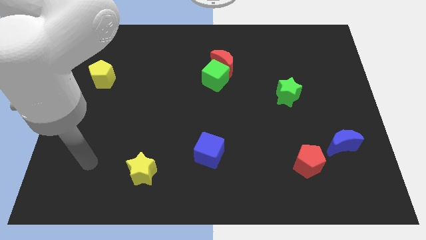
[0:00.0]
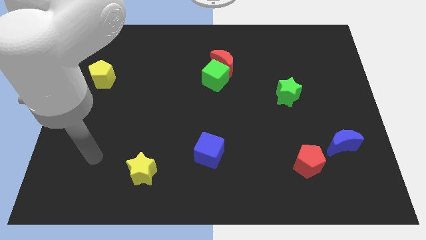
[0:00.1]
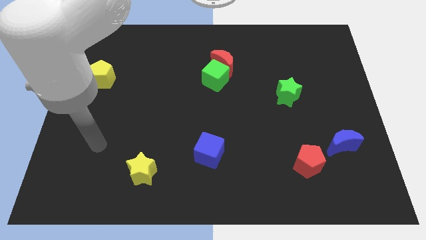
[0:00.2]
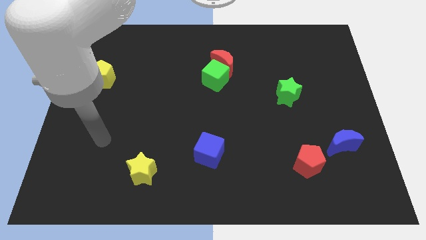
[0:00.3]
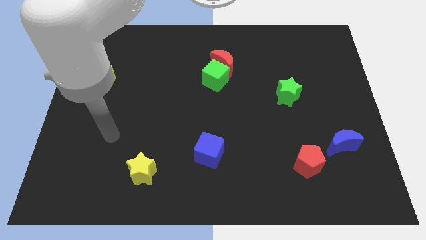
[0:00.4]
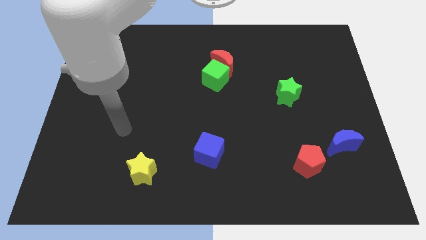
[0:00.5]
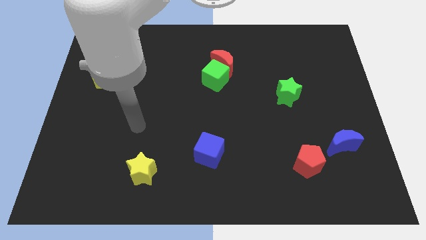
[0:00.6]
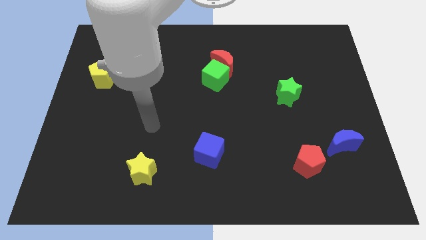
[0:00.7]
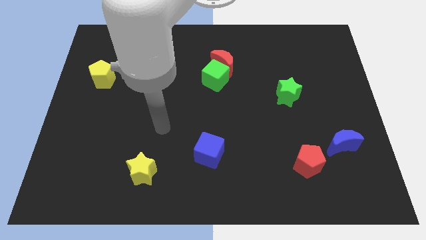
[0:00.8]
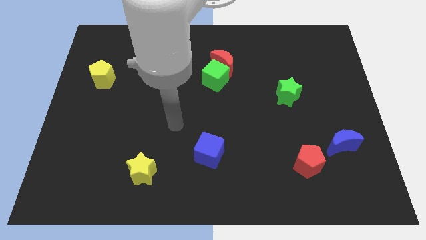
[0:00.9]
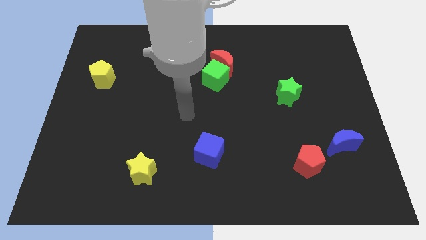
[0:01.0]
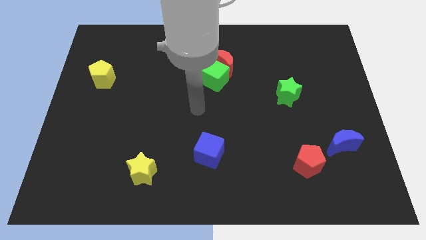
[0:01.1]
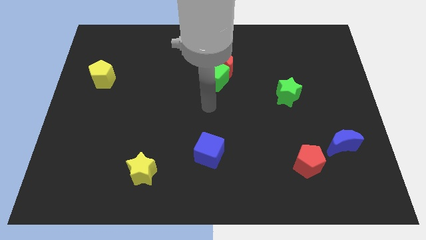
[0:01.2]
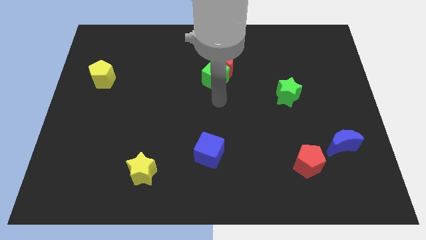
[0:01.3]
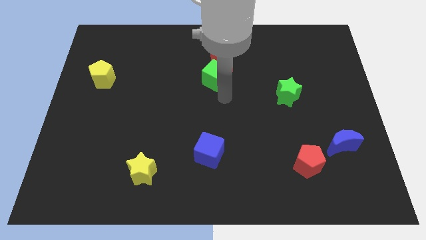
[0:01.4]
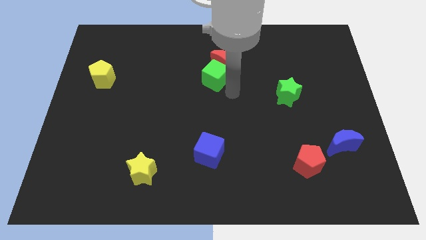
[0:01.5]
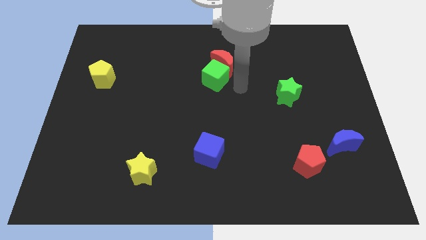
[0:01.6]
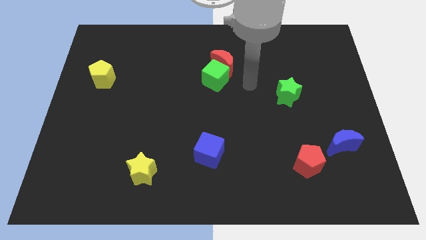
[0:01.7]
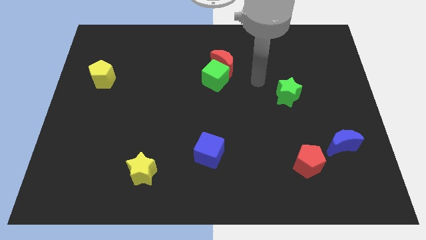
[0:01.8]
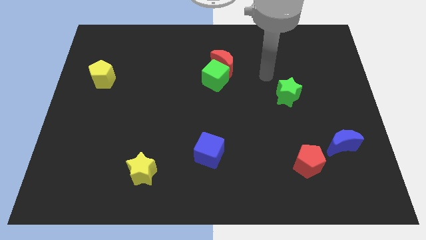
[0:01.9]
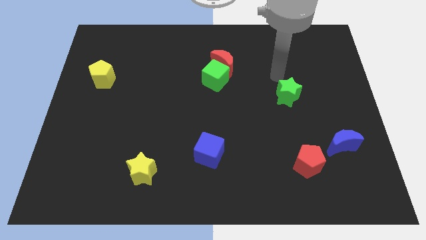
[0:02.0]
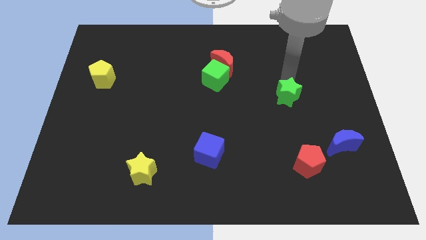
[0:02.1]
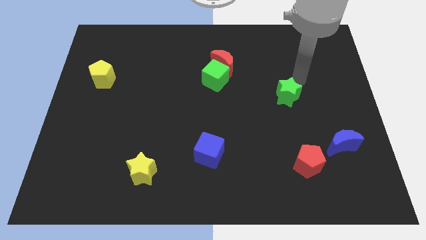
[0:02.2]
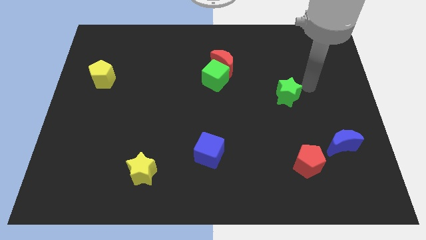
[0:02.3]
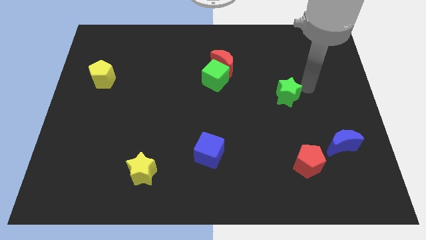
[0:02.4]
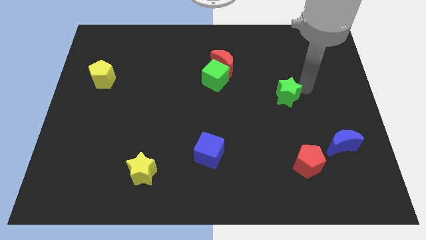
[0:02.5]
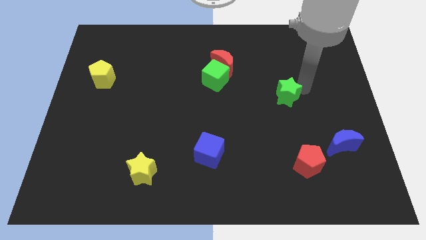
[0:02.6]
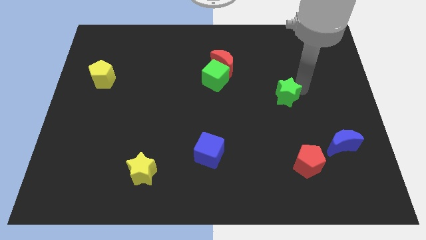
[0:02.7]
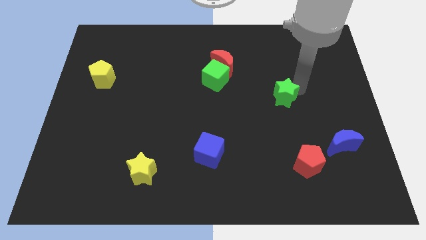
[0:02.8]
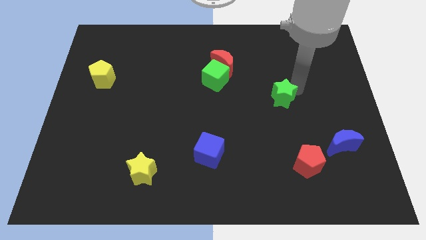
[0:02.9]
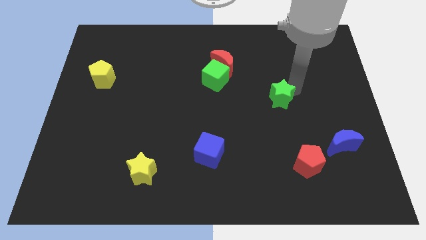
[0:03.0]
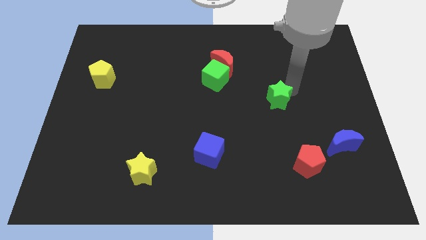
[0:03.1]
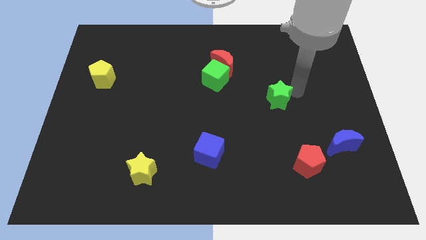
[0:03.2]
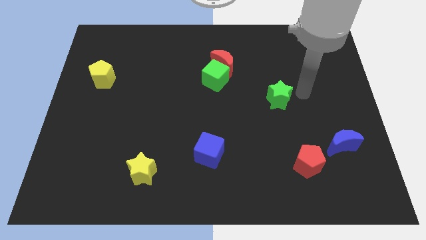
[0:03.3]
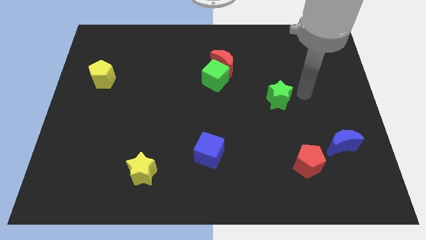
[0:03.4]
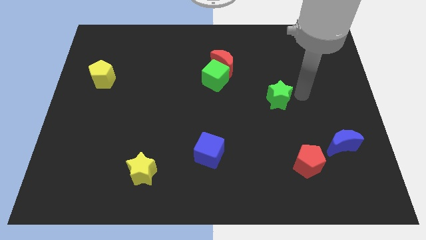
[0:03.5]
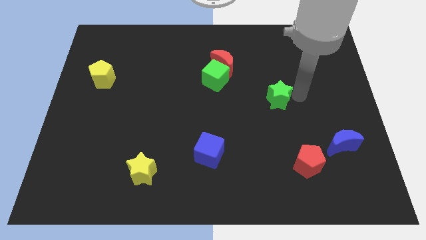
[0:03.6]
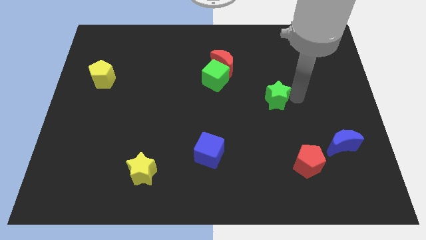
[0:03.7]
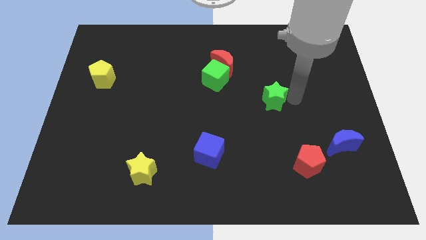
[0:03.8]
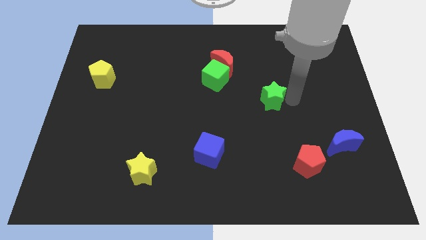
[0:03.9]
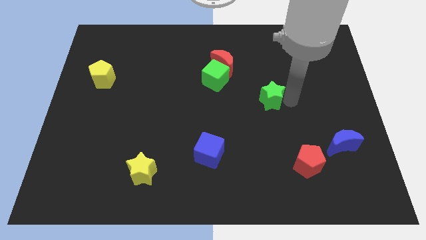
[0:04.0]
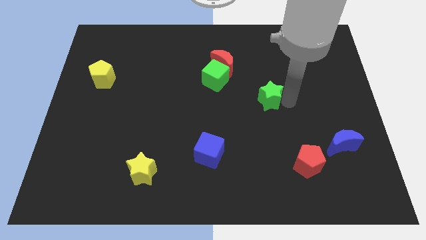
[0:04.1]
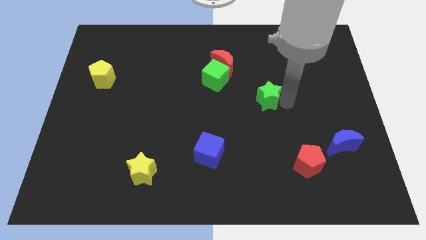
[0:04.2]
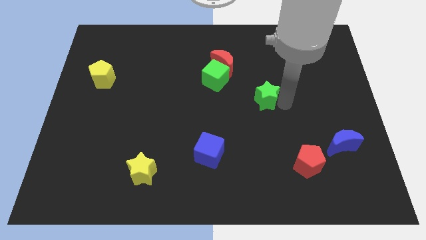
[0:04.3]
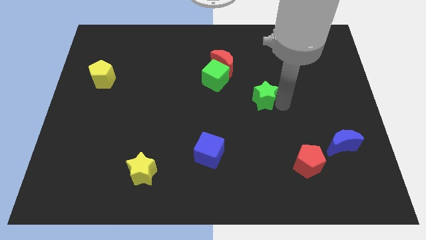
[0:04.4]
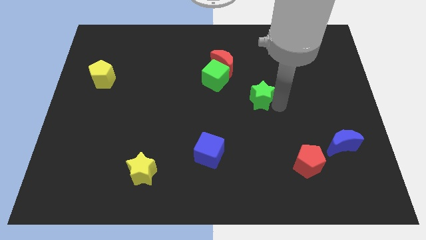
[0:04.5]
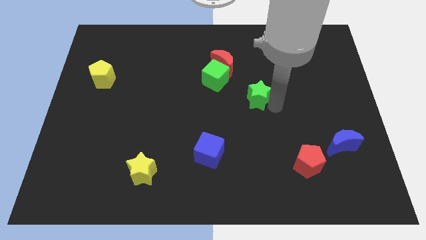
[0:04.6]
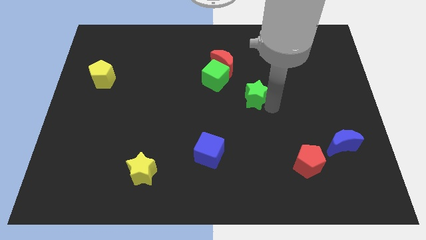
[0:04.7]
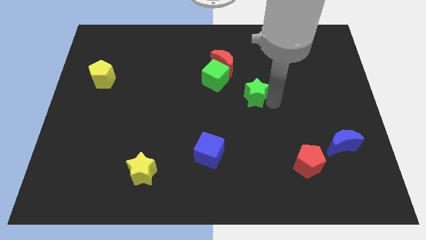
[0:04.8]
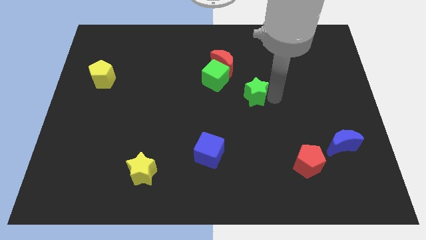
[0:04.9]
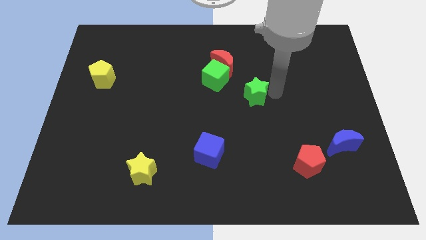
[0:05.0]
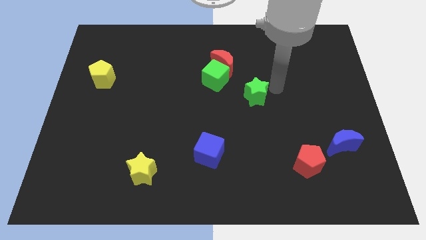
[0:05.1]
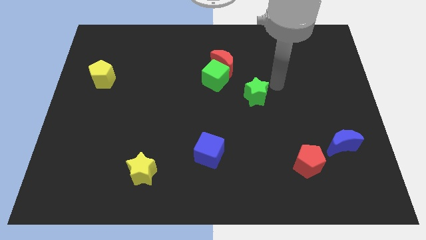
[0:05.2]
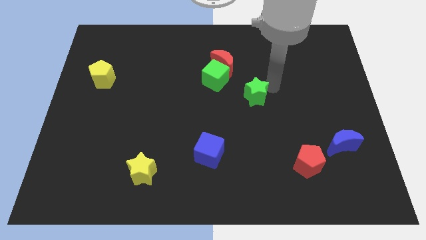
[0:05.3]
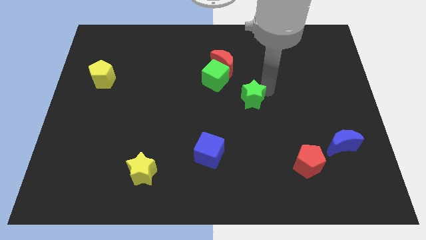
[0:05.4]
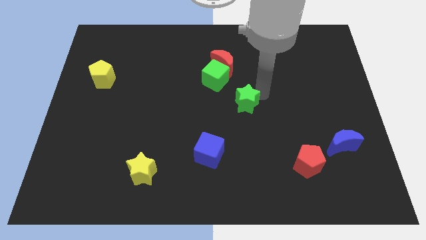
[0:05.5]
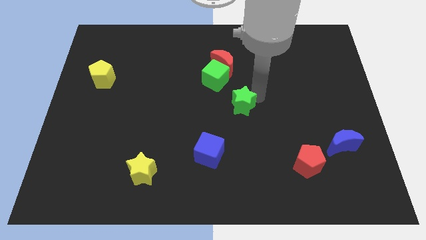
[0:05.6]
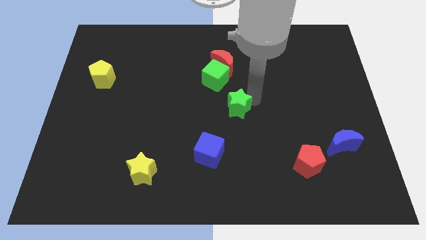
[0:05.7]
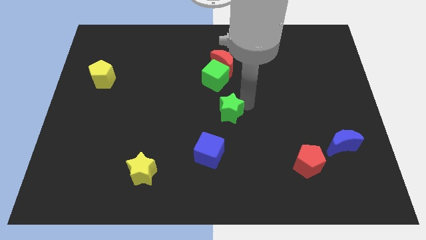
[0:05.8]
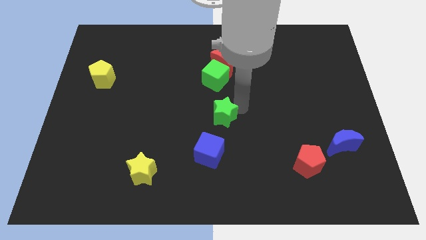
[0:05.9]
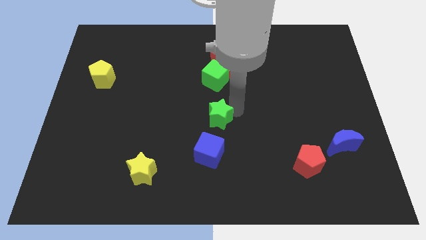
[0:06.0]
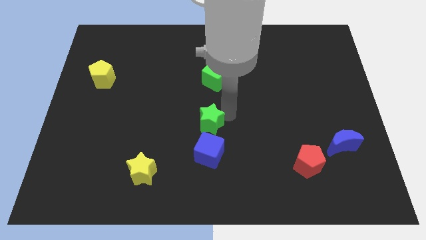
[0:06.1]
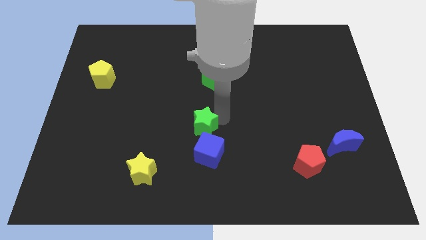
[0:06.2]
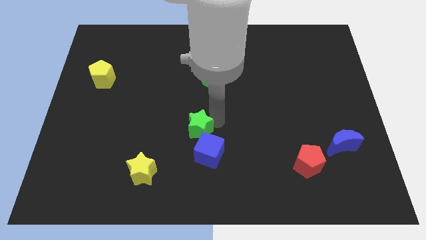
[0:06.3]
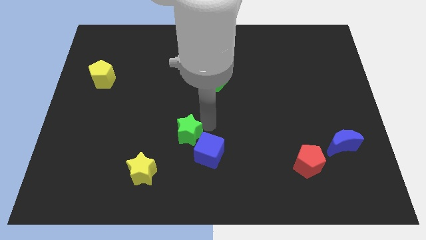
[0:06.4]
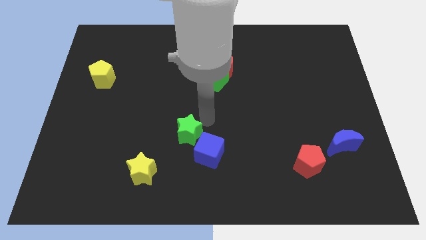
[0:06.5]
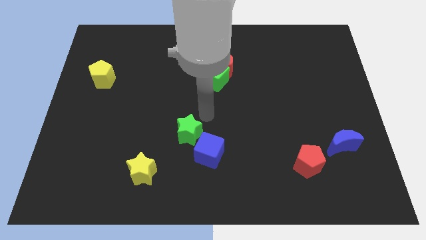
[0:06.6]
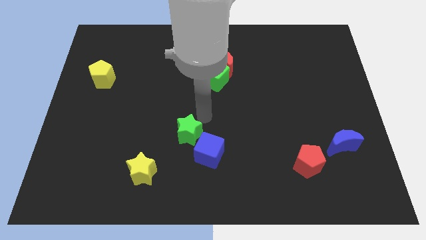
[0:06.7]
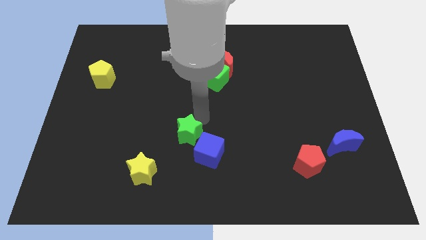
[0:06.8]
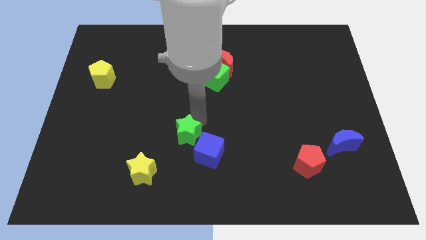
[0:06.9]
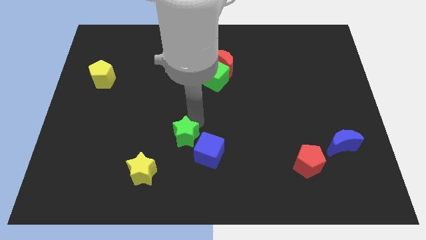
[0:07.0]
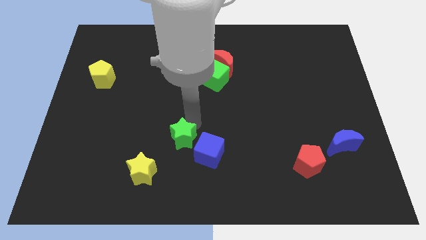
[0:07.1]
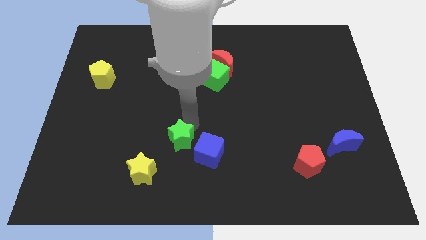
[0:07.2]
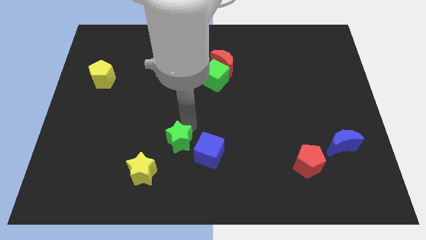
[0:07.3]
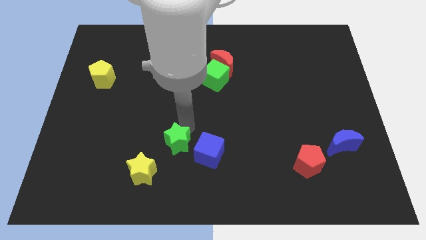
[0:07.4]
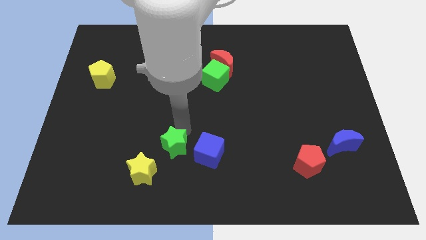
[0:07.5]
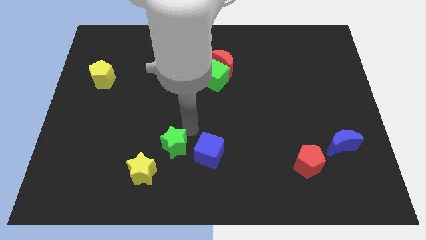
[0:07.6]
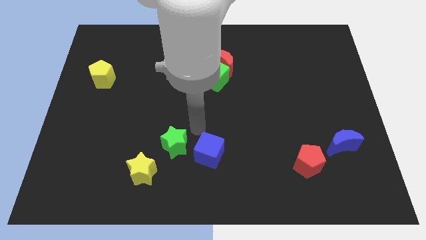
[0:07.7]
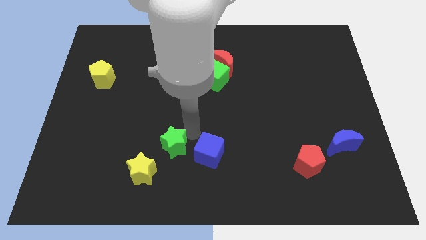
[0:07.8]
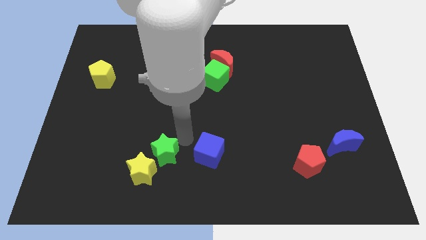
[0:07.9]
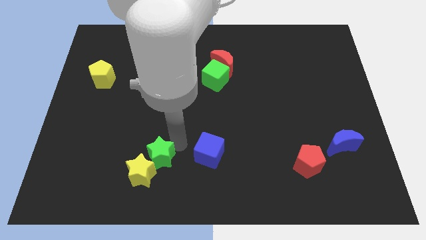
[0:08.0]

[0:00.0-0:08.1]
slide the green star next to the yellow star
